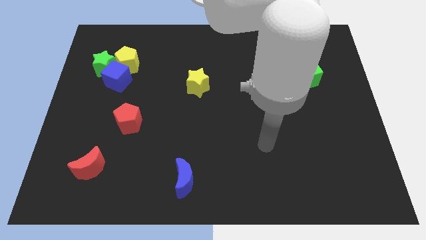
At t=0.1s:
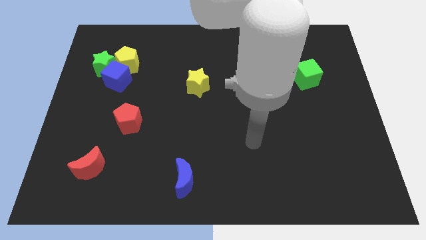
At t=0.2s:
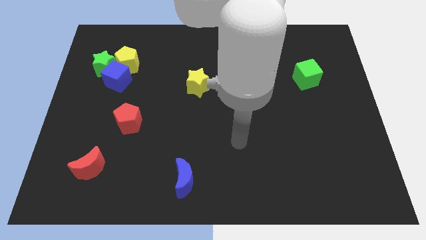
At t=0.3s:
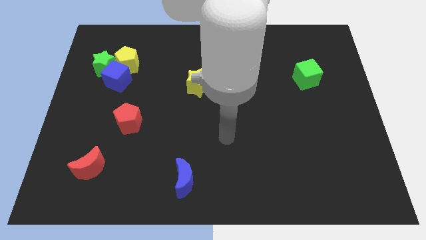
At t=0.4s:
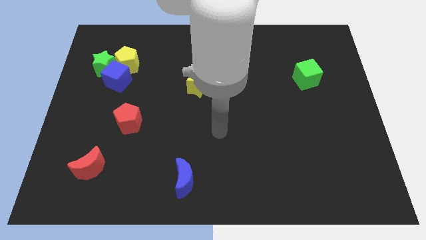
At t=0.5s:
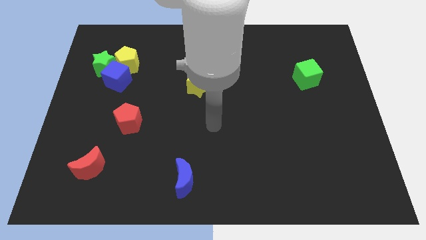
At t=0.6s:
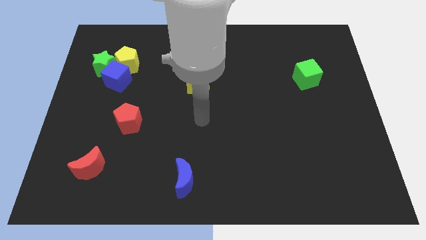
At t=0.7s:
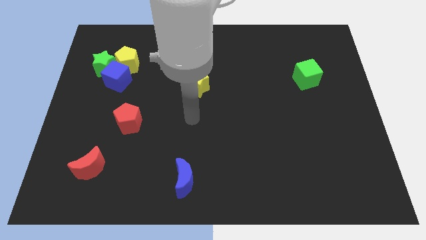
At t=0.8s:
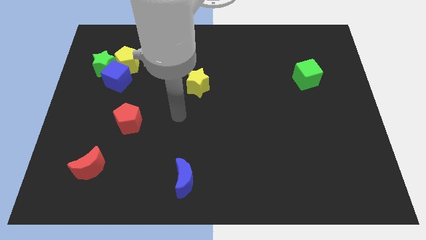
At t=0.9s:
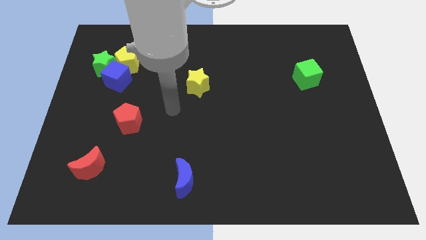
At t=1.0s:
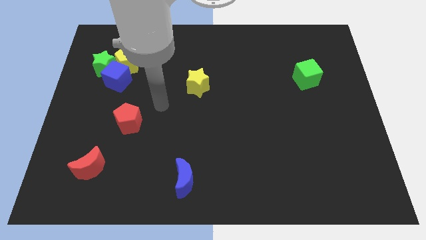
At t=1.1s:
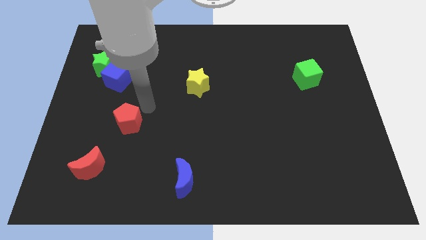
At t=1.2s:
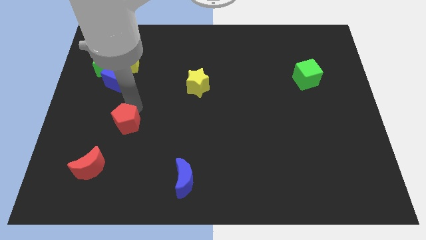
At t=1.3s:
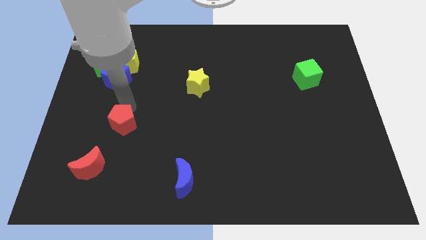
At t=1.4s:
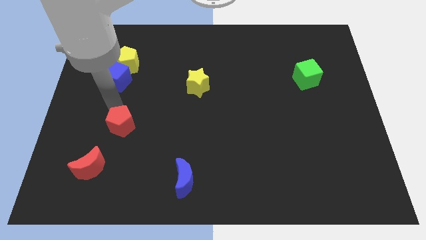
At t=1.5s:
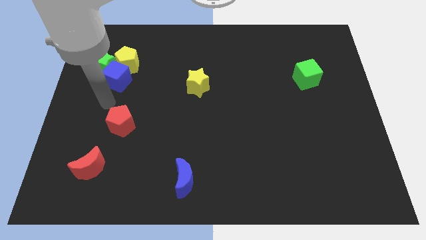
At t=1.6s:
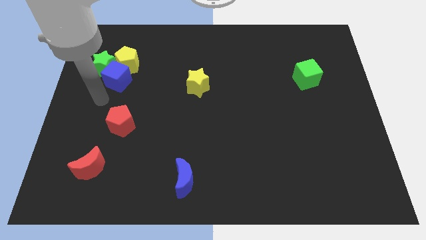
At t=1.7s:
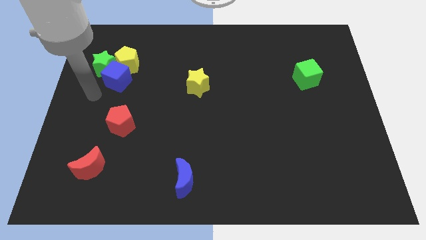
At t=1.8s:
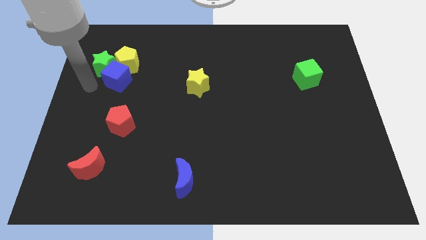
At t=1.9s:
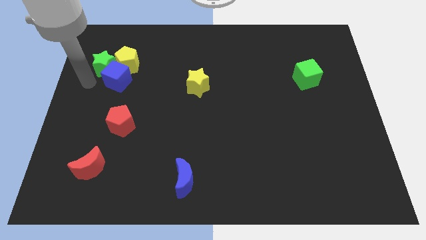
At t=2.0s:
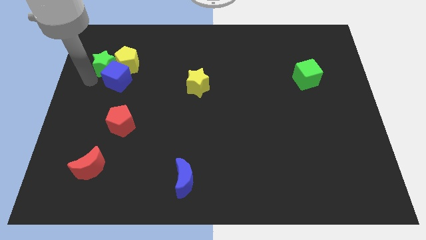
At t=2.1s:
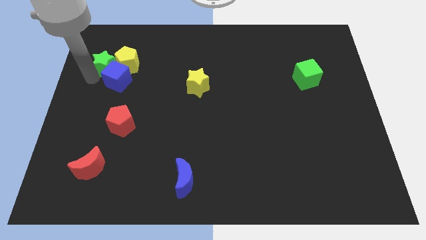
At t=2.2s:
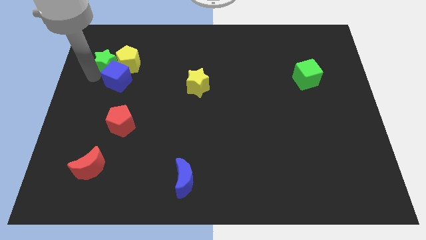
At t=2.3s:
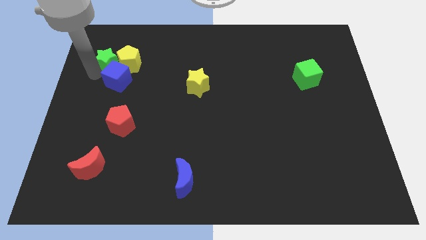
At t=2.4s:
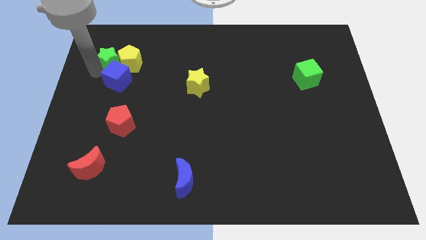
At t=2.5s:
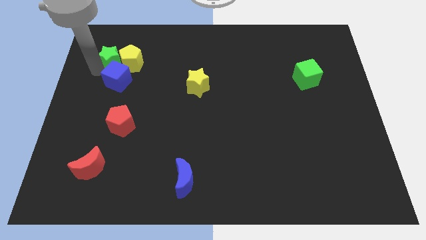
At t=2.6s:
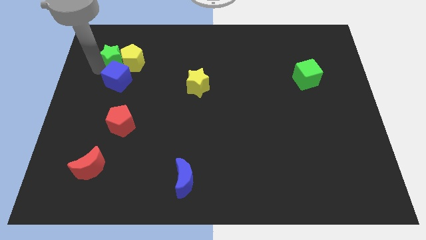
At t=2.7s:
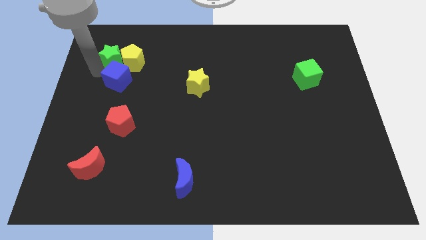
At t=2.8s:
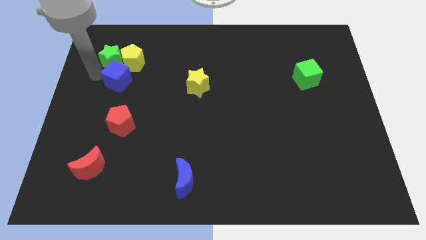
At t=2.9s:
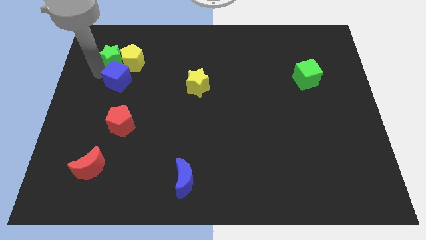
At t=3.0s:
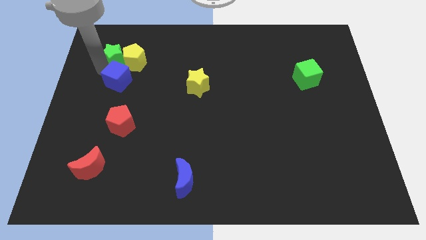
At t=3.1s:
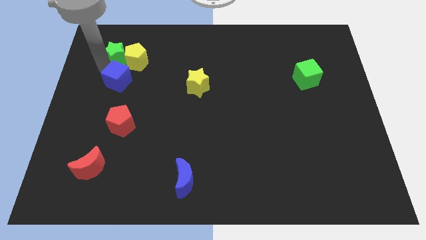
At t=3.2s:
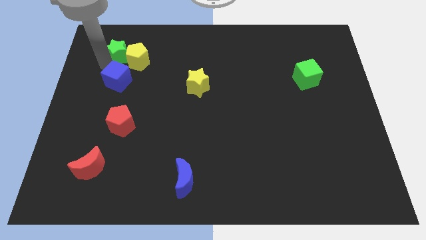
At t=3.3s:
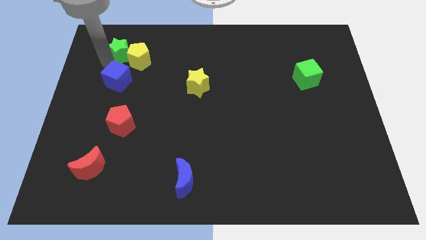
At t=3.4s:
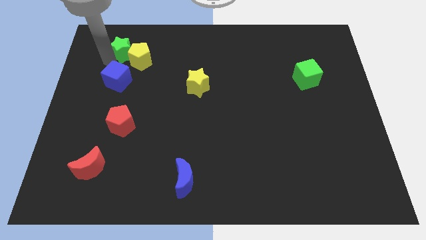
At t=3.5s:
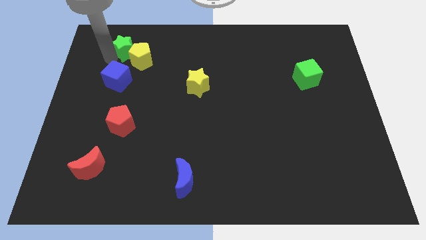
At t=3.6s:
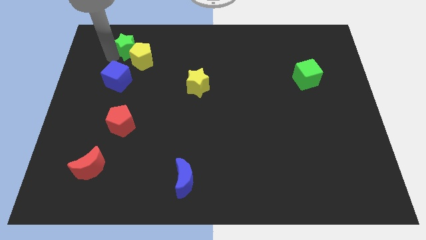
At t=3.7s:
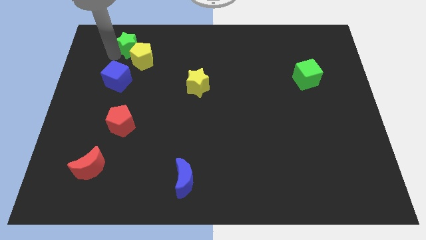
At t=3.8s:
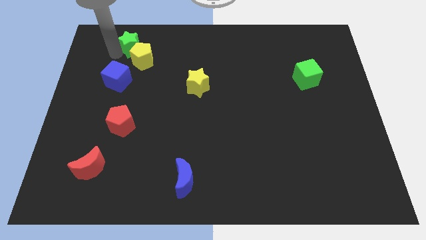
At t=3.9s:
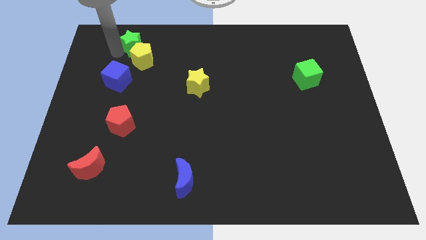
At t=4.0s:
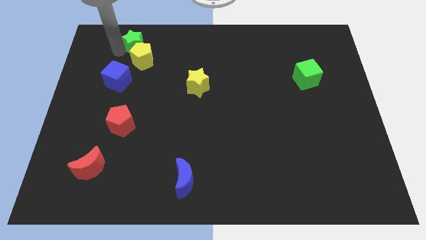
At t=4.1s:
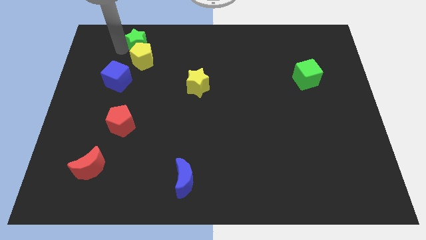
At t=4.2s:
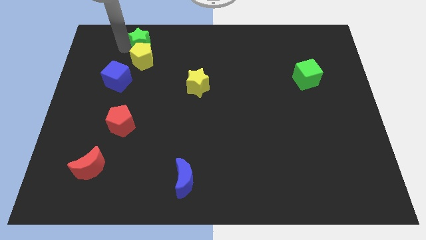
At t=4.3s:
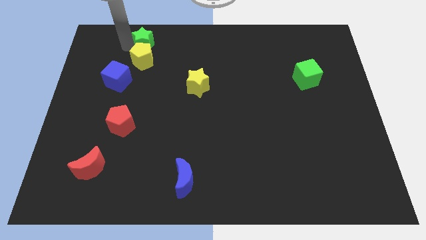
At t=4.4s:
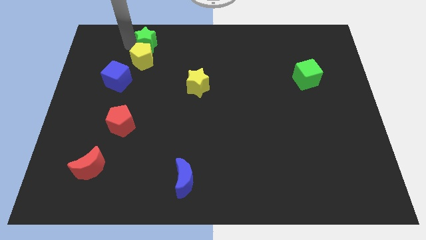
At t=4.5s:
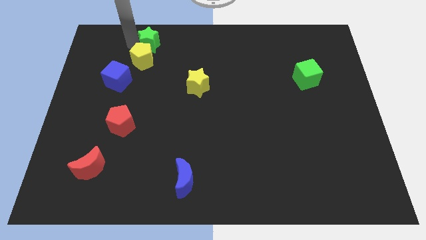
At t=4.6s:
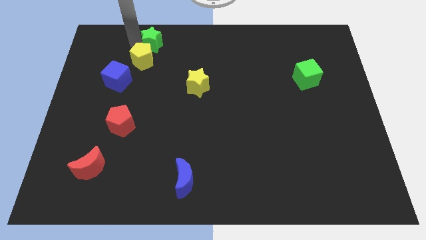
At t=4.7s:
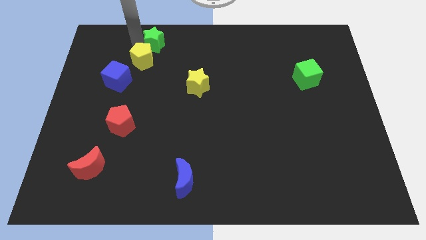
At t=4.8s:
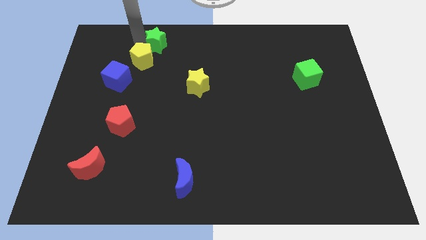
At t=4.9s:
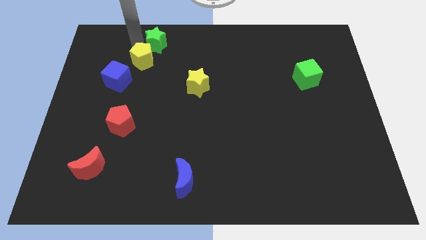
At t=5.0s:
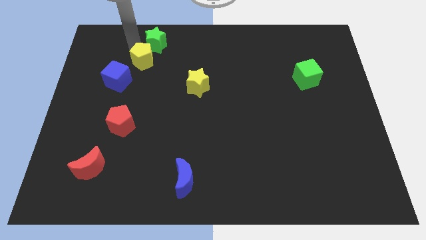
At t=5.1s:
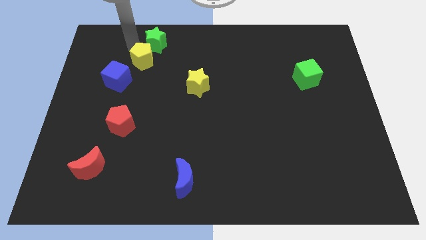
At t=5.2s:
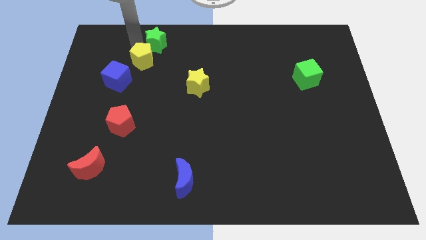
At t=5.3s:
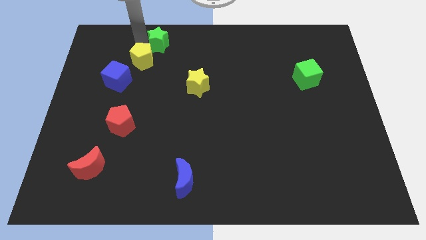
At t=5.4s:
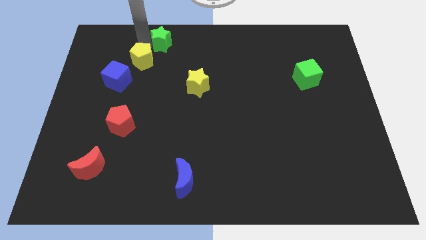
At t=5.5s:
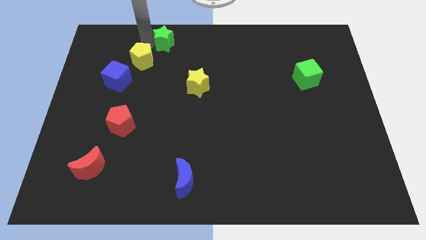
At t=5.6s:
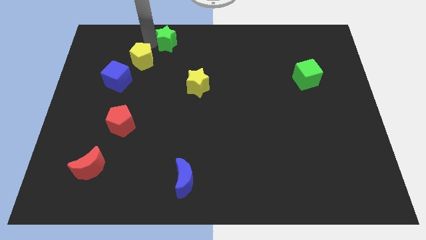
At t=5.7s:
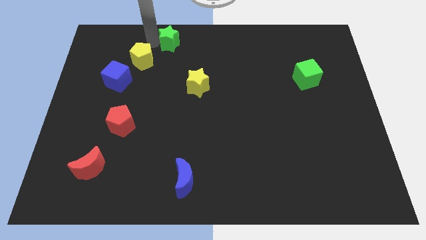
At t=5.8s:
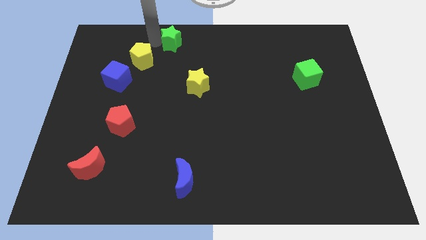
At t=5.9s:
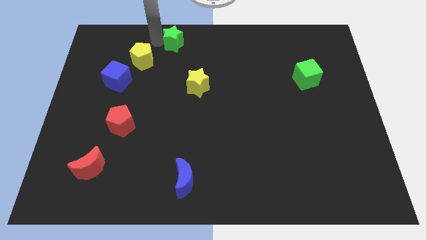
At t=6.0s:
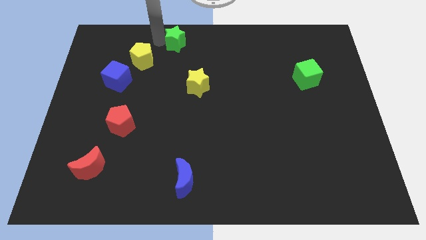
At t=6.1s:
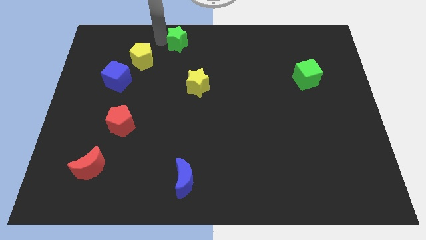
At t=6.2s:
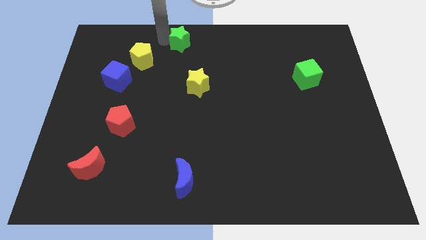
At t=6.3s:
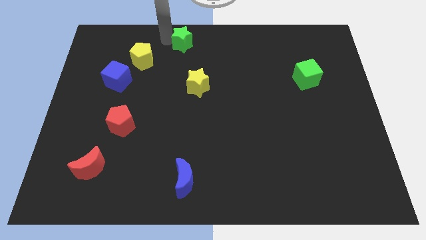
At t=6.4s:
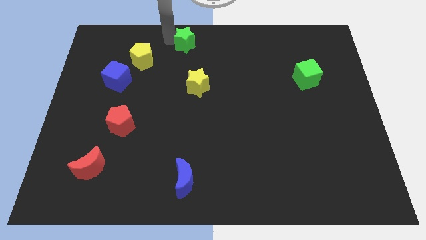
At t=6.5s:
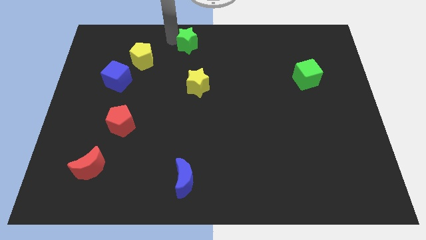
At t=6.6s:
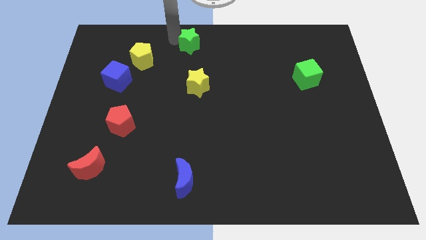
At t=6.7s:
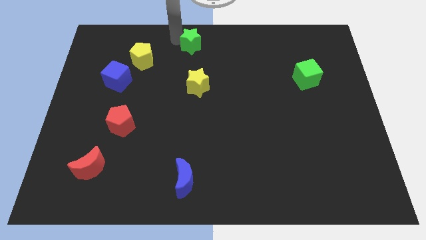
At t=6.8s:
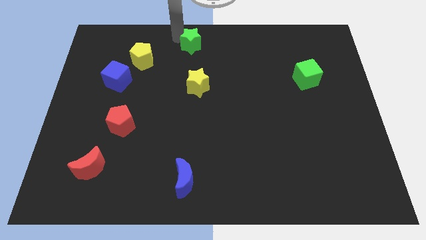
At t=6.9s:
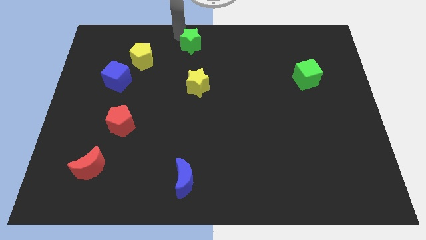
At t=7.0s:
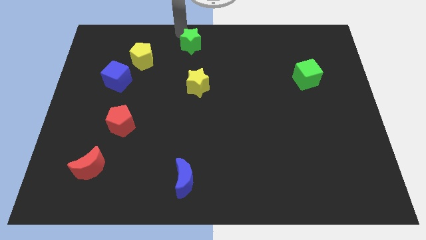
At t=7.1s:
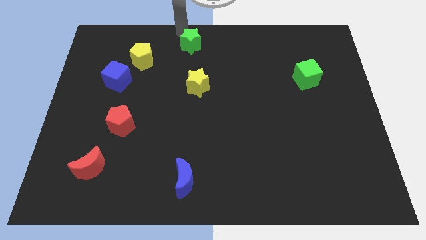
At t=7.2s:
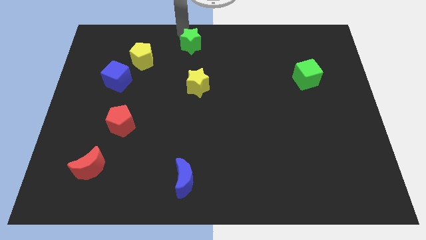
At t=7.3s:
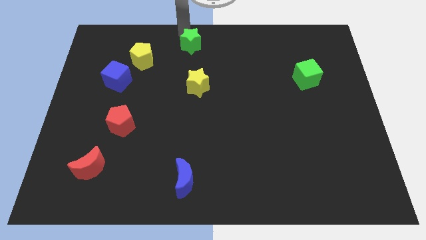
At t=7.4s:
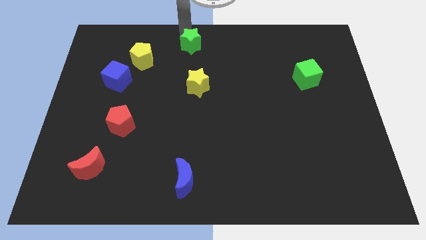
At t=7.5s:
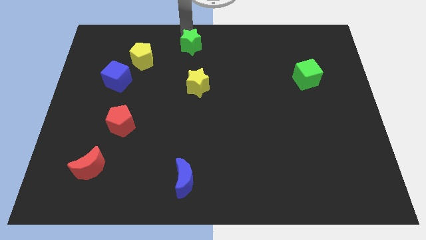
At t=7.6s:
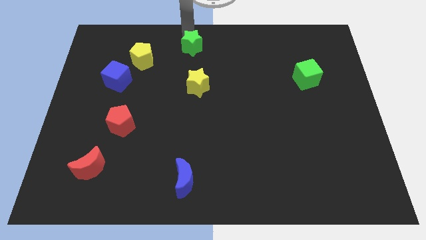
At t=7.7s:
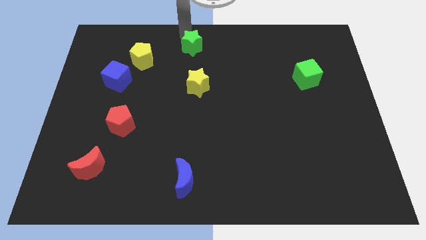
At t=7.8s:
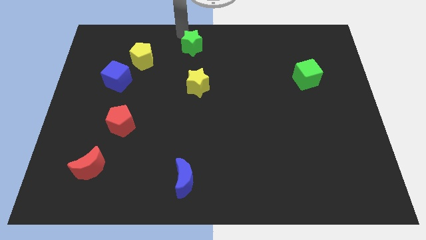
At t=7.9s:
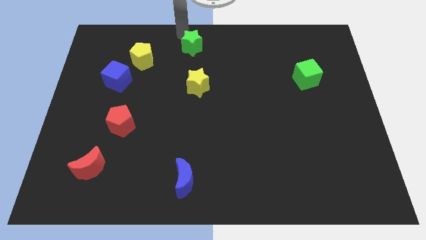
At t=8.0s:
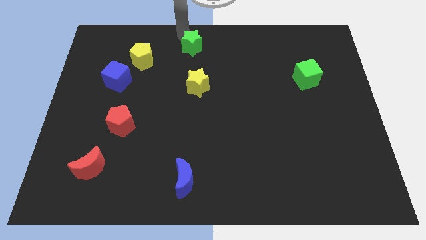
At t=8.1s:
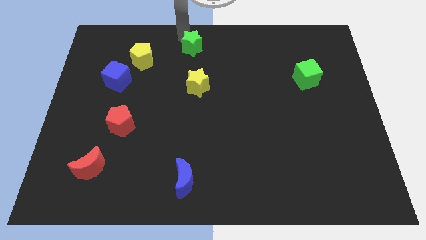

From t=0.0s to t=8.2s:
slide the green star to the right
